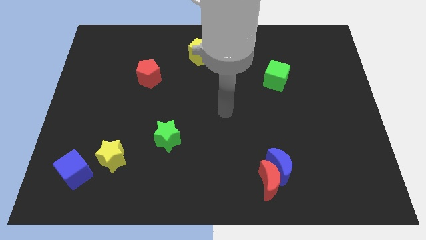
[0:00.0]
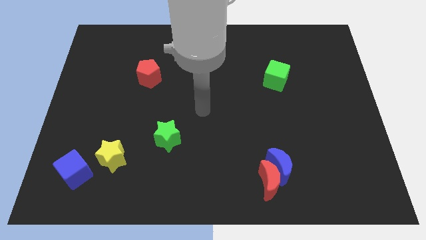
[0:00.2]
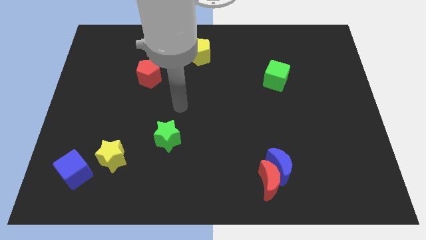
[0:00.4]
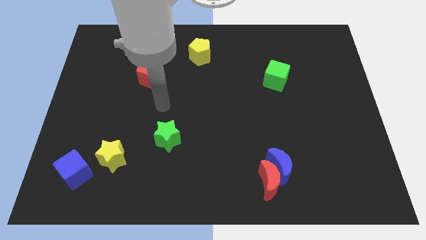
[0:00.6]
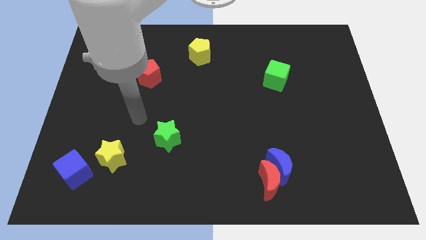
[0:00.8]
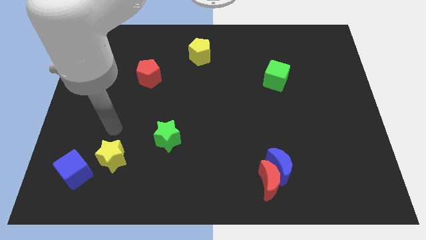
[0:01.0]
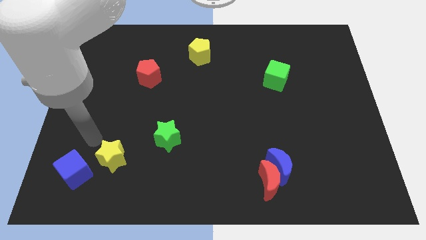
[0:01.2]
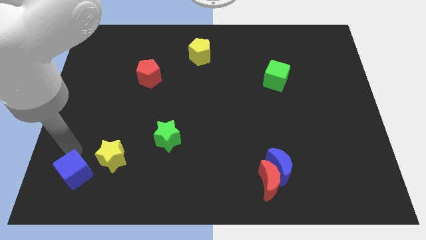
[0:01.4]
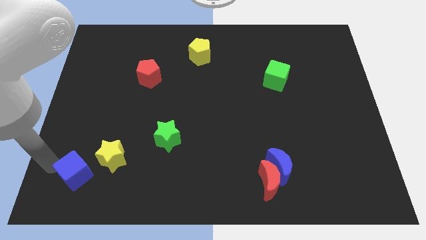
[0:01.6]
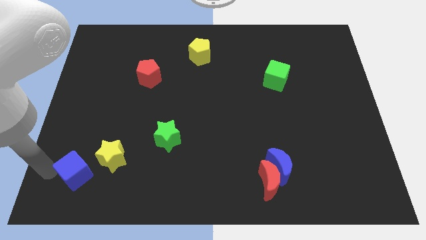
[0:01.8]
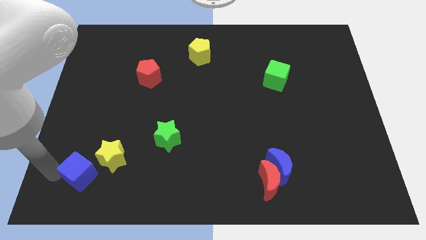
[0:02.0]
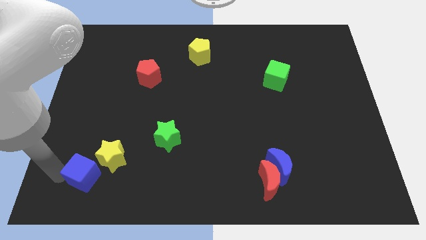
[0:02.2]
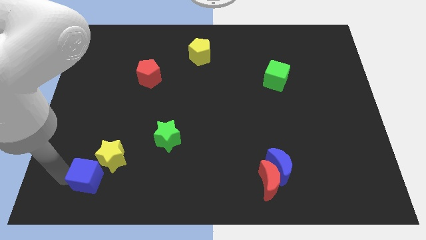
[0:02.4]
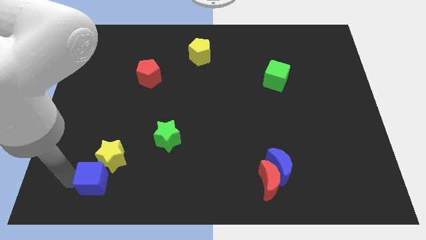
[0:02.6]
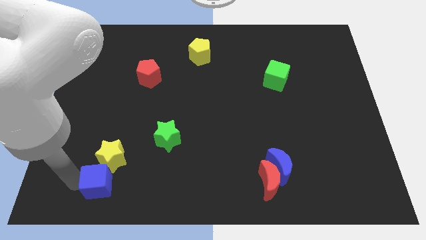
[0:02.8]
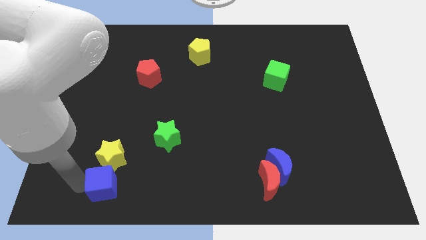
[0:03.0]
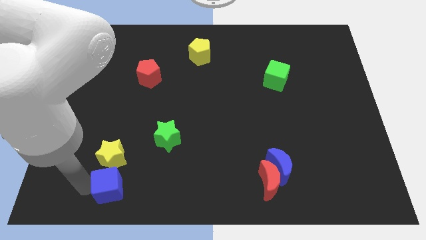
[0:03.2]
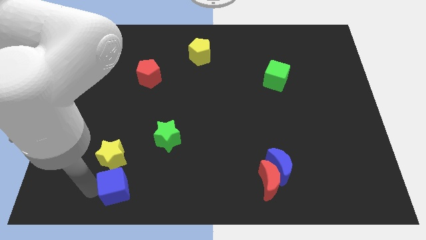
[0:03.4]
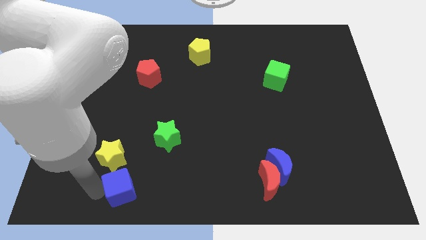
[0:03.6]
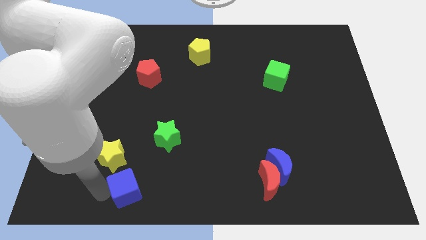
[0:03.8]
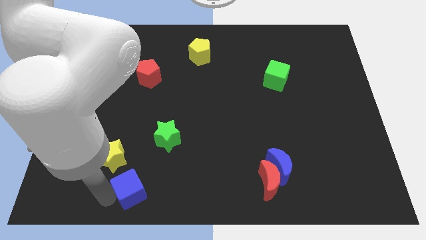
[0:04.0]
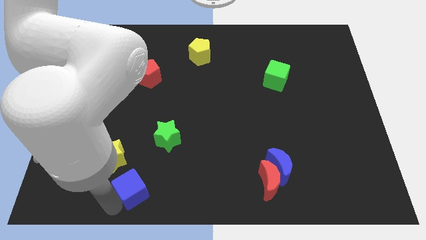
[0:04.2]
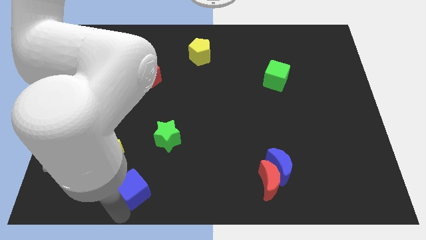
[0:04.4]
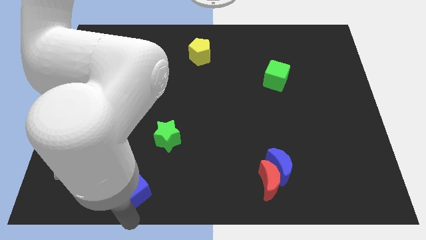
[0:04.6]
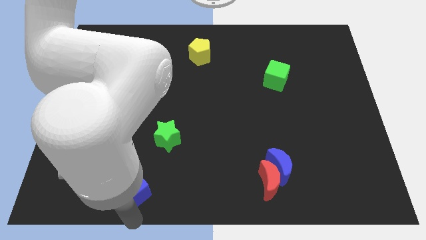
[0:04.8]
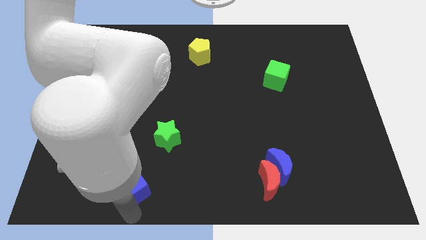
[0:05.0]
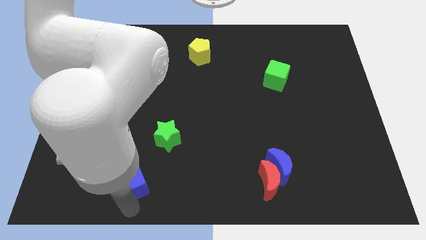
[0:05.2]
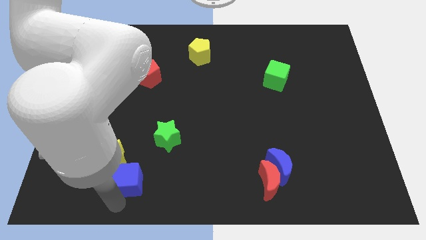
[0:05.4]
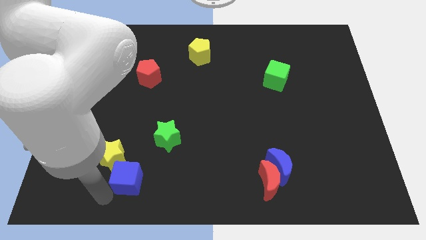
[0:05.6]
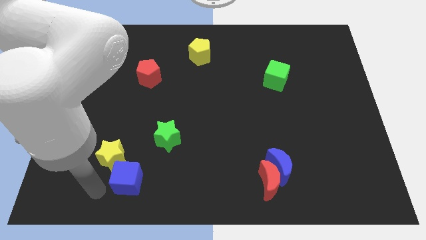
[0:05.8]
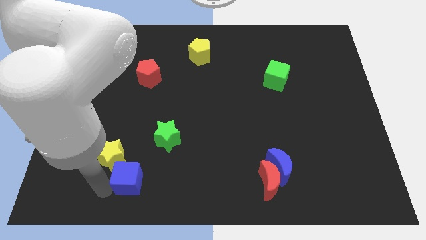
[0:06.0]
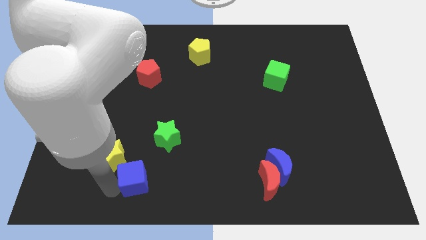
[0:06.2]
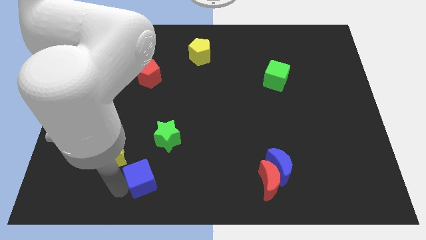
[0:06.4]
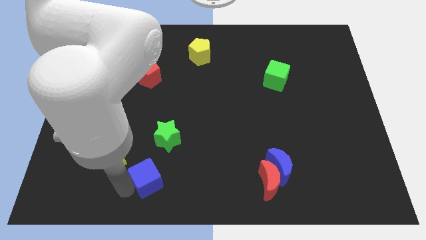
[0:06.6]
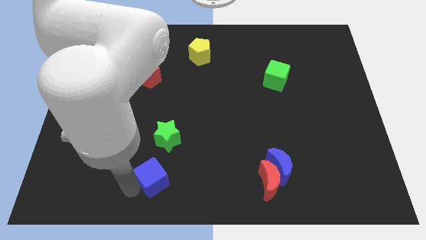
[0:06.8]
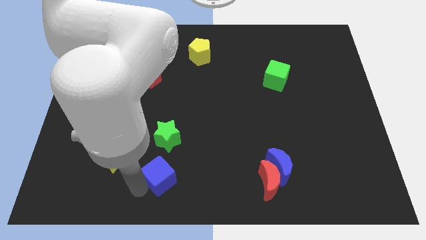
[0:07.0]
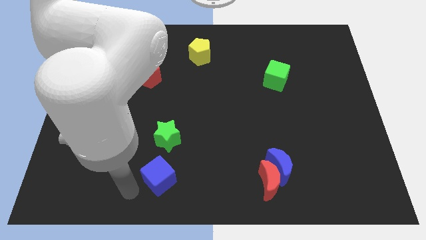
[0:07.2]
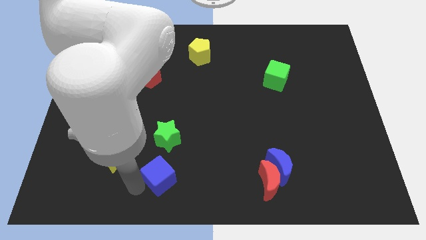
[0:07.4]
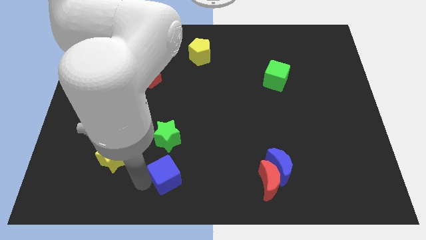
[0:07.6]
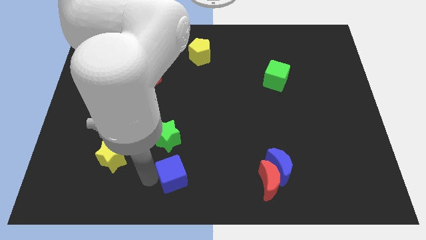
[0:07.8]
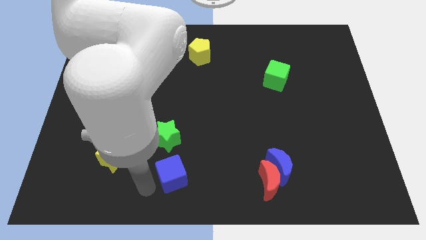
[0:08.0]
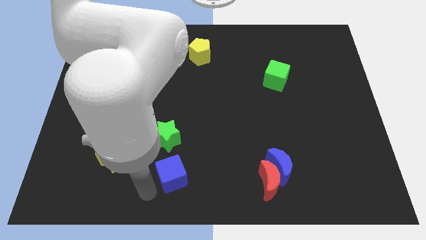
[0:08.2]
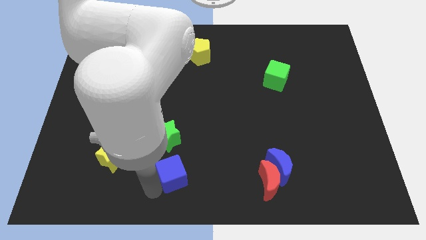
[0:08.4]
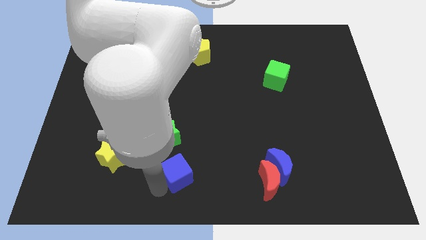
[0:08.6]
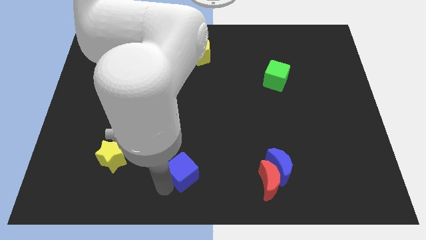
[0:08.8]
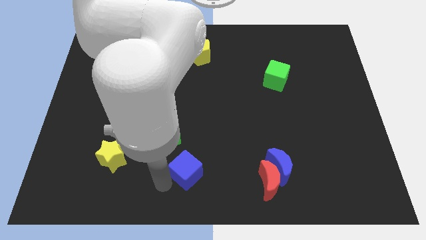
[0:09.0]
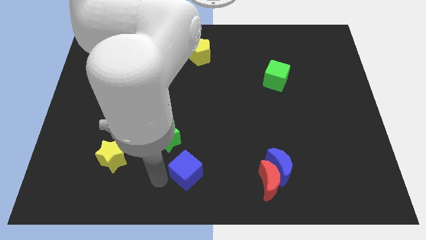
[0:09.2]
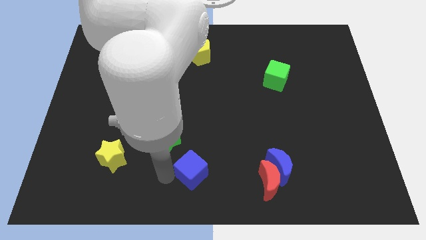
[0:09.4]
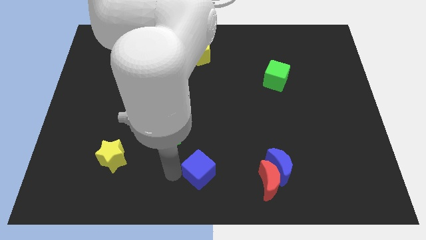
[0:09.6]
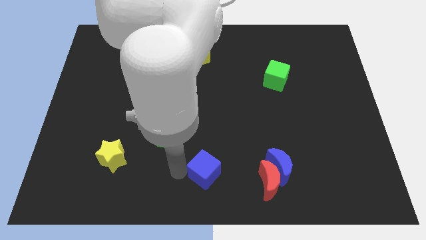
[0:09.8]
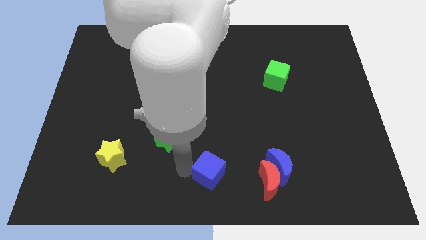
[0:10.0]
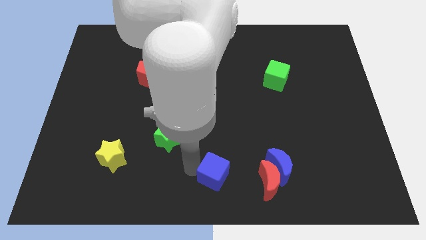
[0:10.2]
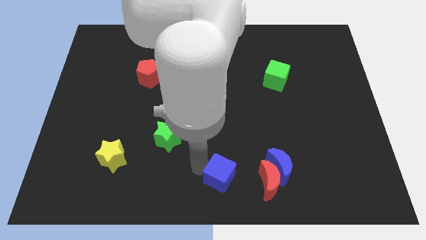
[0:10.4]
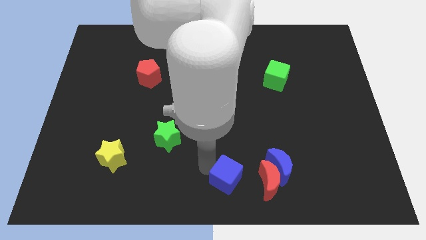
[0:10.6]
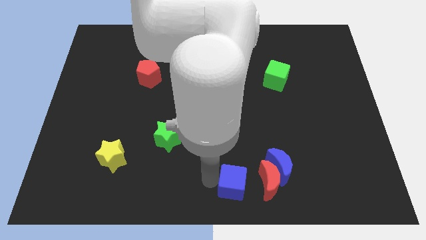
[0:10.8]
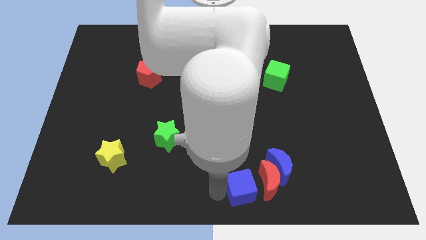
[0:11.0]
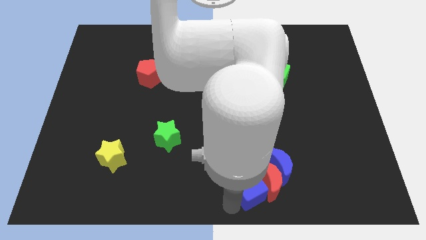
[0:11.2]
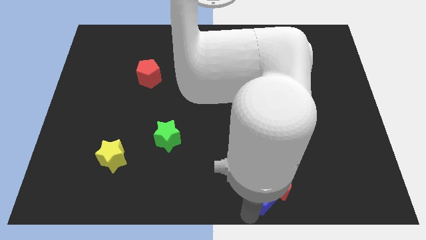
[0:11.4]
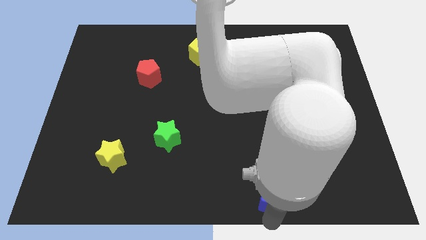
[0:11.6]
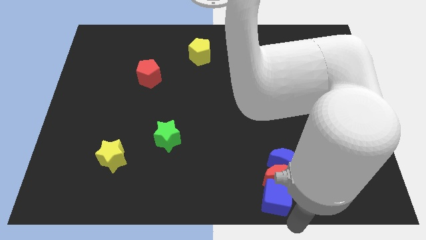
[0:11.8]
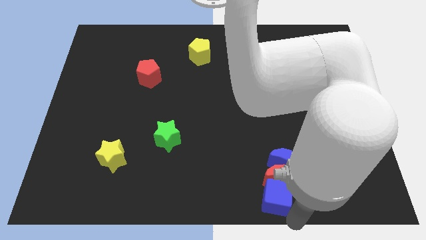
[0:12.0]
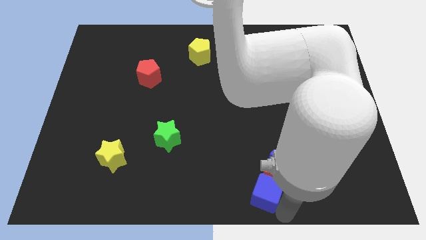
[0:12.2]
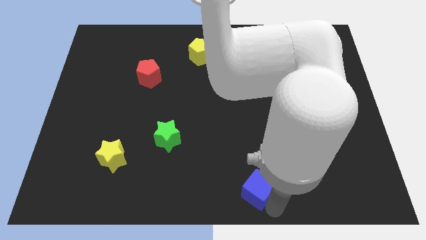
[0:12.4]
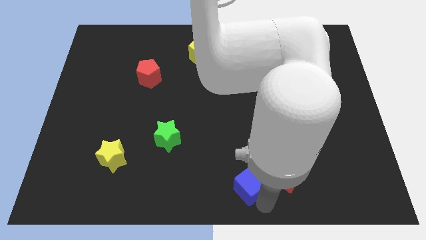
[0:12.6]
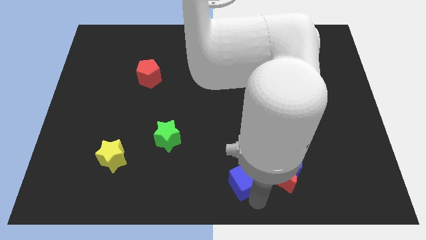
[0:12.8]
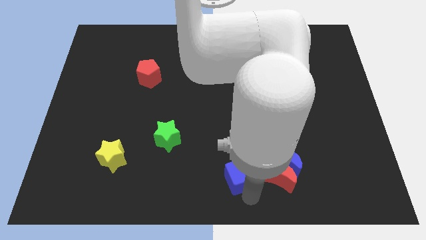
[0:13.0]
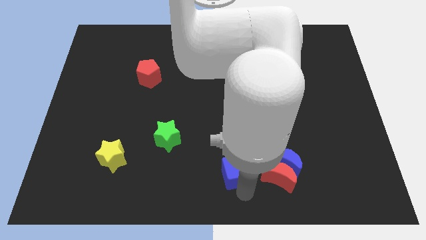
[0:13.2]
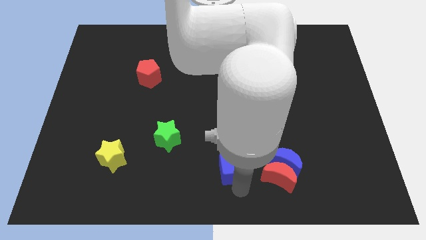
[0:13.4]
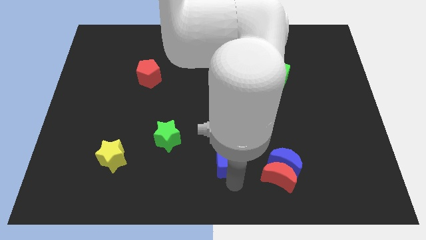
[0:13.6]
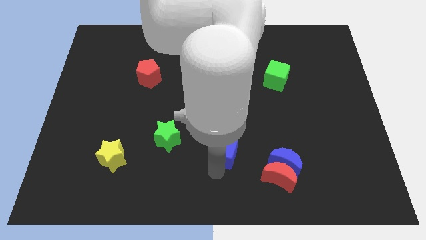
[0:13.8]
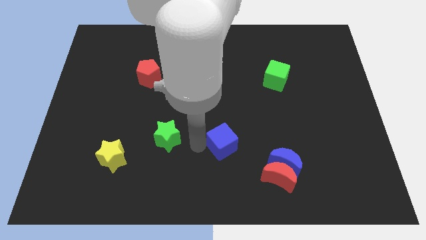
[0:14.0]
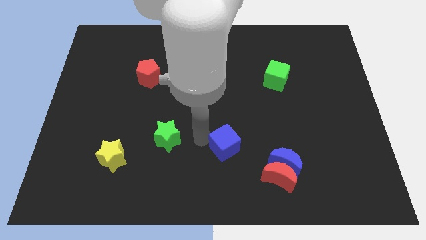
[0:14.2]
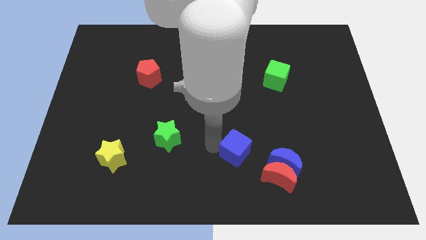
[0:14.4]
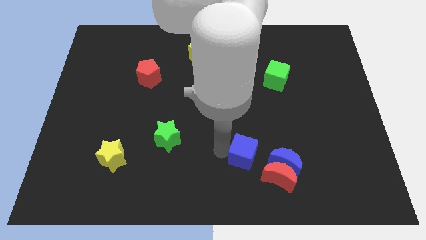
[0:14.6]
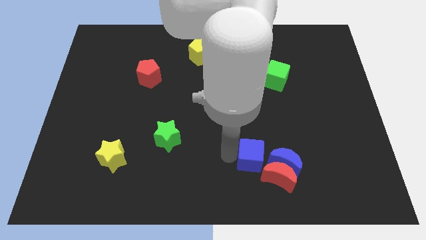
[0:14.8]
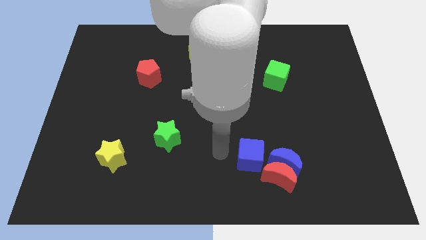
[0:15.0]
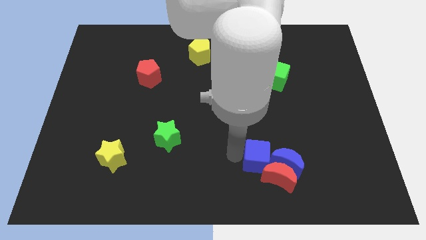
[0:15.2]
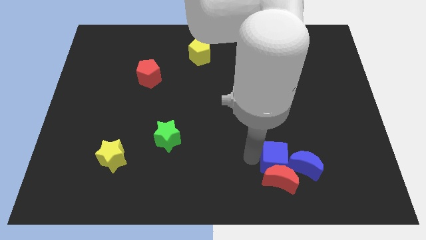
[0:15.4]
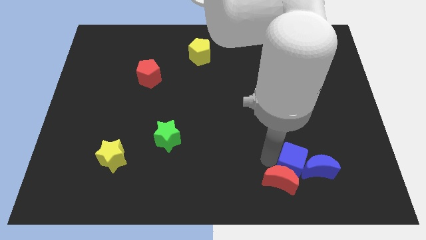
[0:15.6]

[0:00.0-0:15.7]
slide the blue cube close to the blue moon

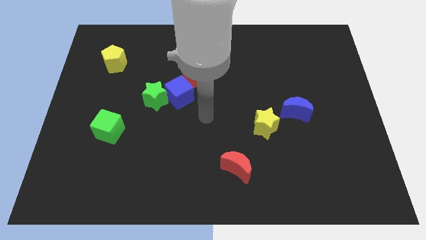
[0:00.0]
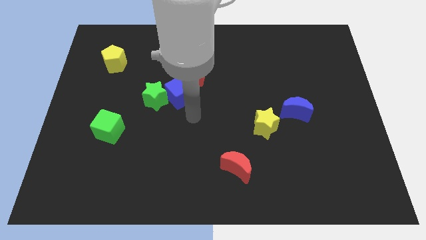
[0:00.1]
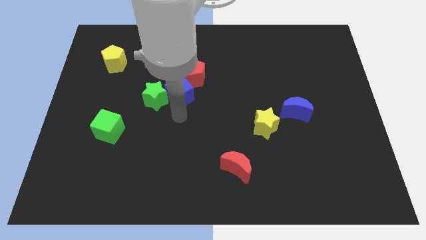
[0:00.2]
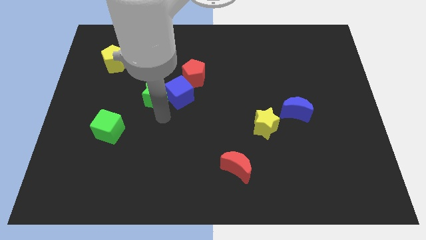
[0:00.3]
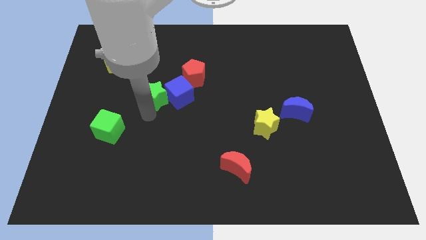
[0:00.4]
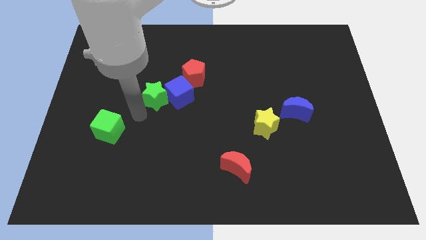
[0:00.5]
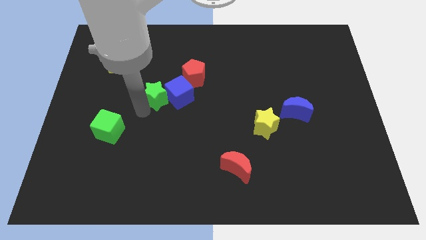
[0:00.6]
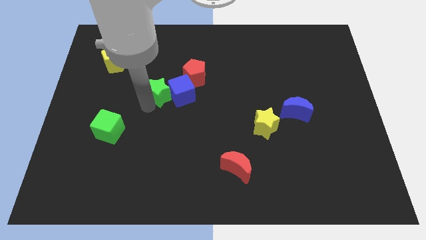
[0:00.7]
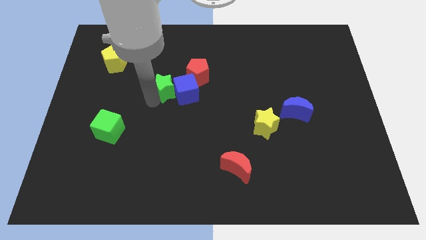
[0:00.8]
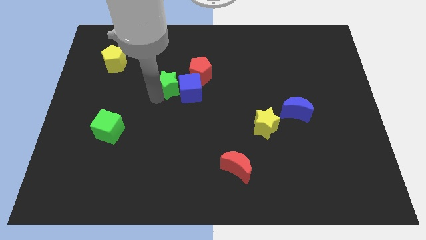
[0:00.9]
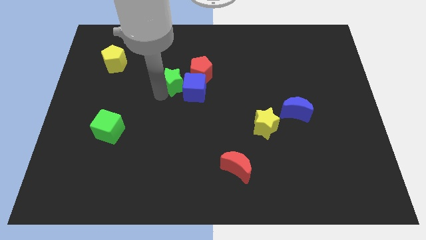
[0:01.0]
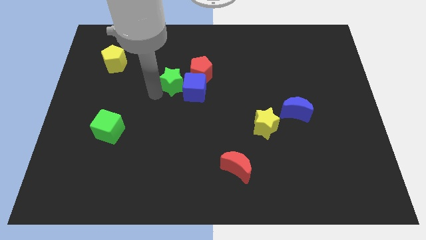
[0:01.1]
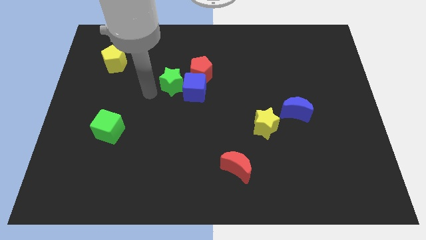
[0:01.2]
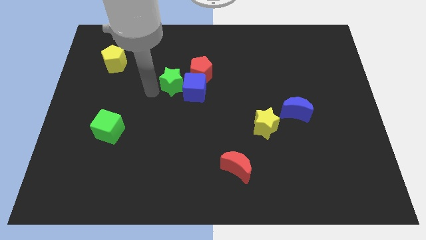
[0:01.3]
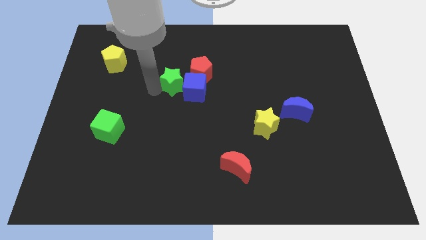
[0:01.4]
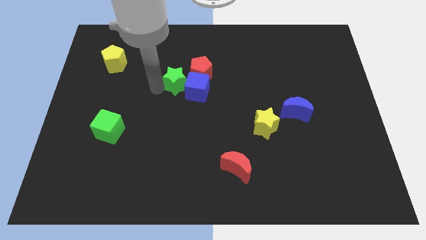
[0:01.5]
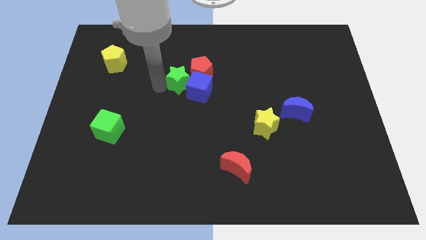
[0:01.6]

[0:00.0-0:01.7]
move the green star towards the red pentagon
